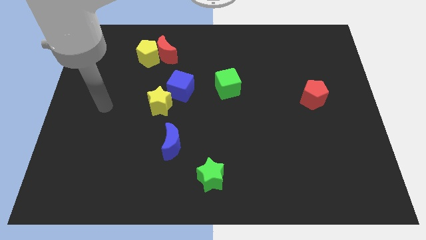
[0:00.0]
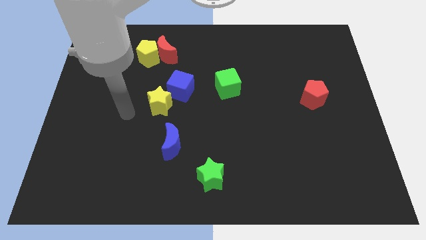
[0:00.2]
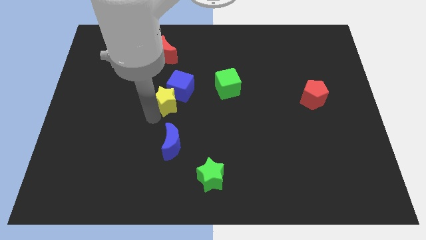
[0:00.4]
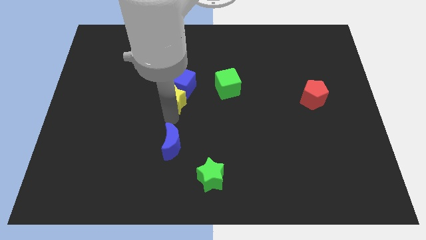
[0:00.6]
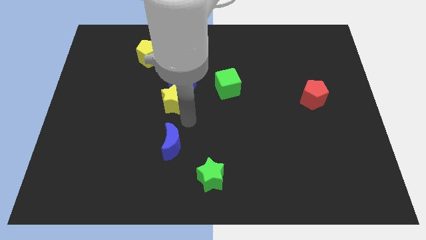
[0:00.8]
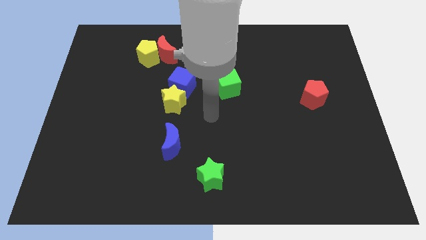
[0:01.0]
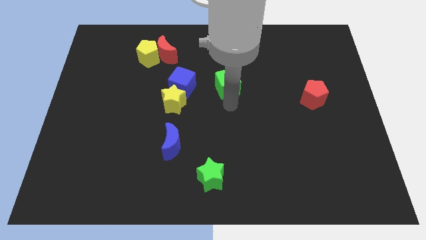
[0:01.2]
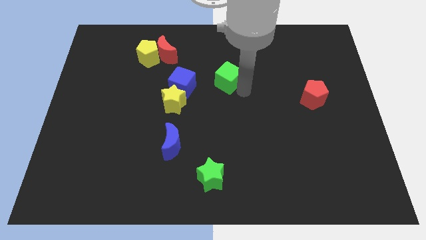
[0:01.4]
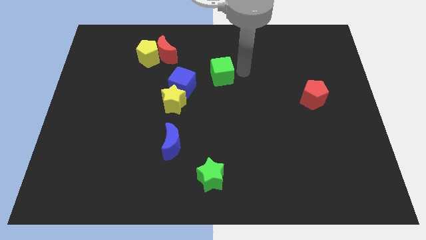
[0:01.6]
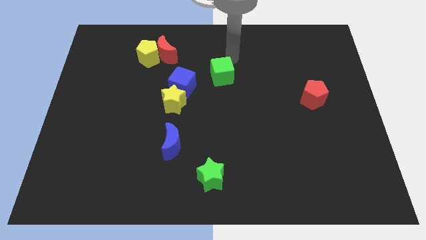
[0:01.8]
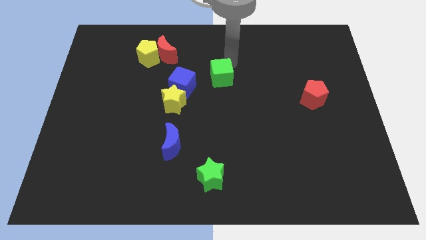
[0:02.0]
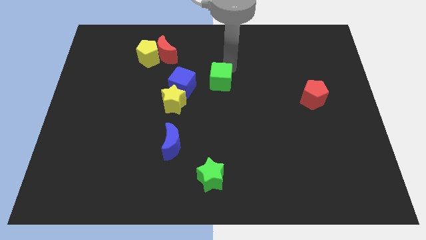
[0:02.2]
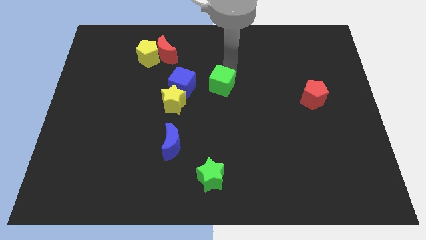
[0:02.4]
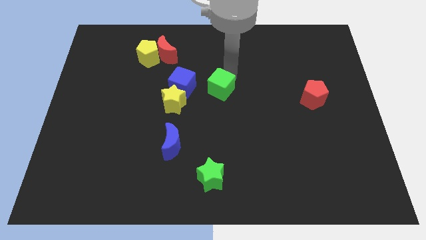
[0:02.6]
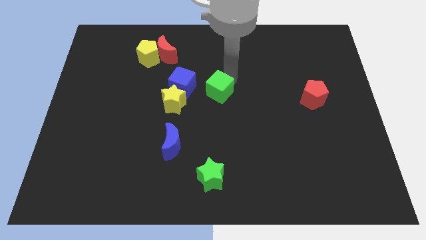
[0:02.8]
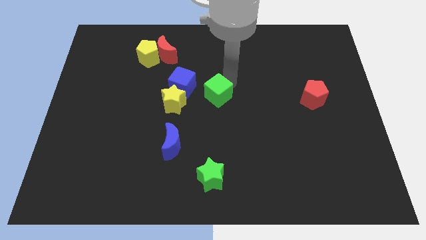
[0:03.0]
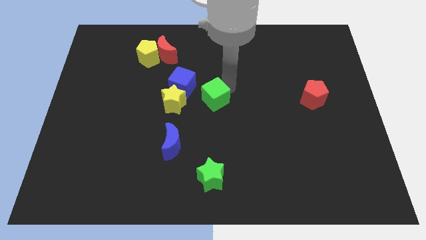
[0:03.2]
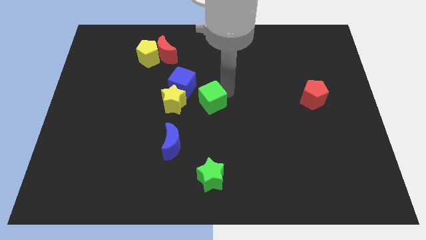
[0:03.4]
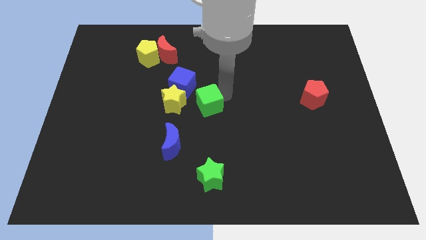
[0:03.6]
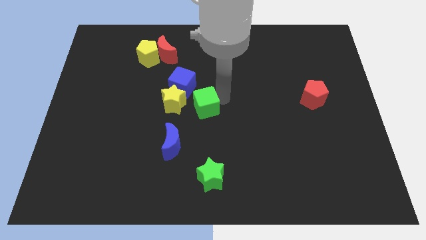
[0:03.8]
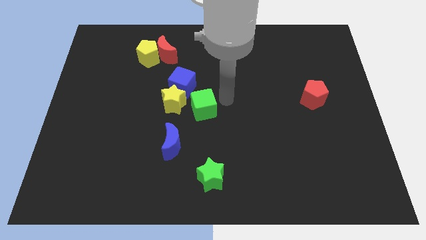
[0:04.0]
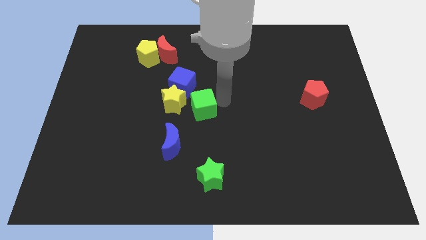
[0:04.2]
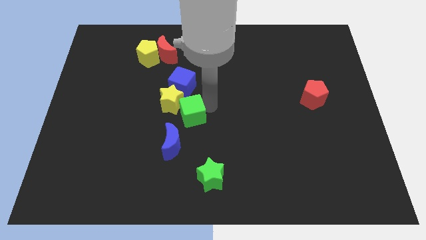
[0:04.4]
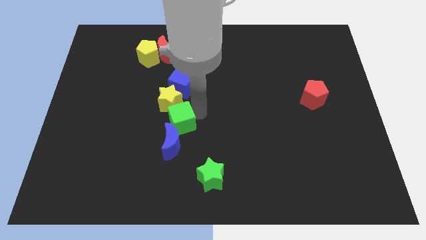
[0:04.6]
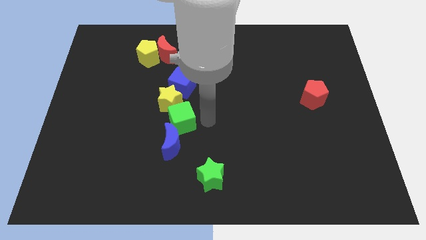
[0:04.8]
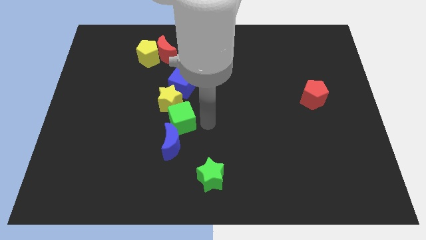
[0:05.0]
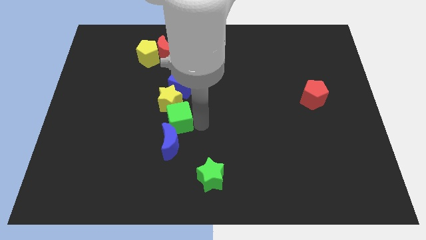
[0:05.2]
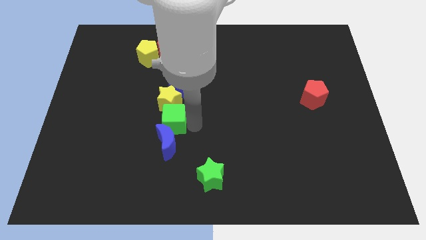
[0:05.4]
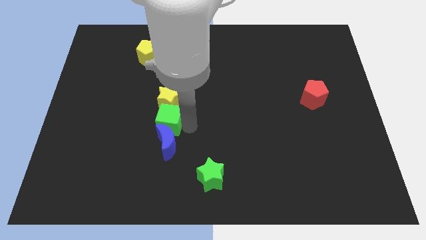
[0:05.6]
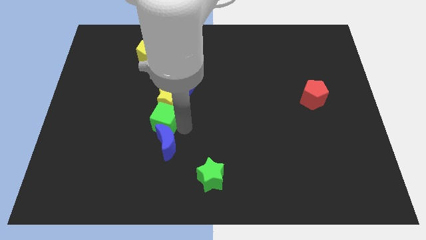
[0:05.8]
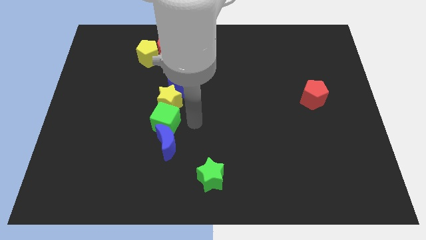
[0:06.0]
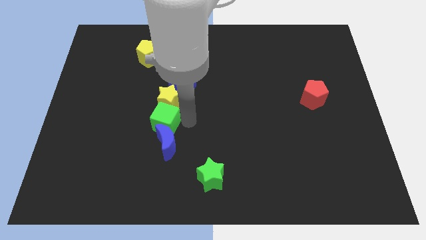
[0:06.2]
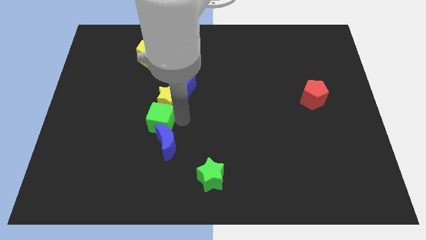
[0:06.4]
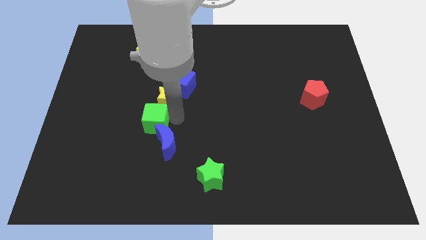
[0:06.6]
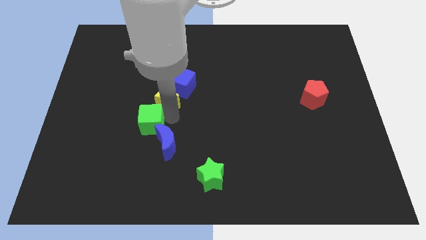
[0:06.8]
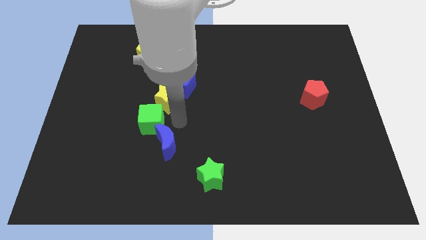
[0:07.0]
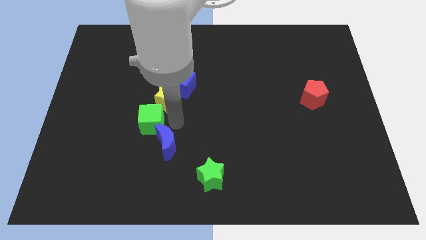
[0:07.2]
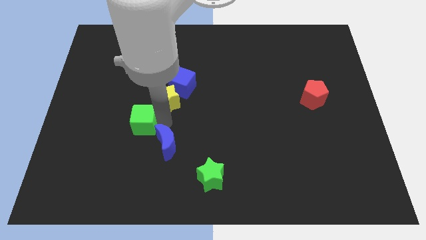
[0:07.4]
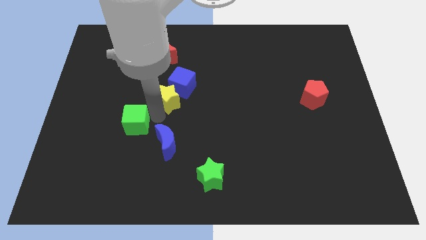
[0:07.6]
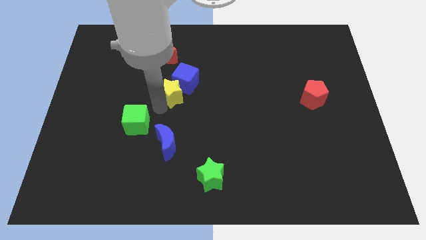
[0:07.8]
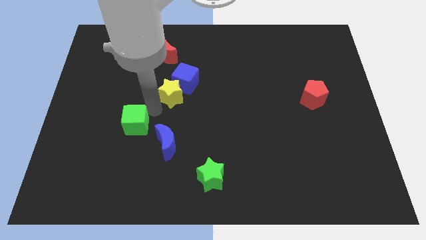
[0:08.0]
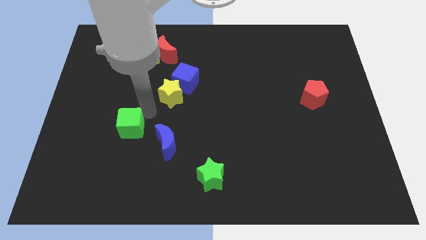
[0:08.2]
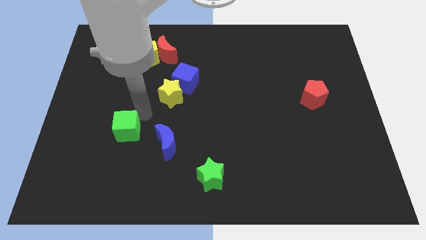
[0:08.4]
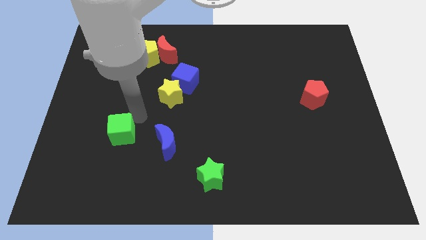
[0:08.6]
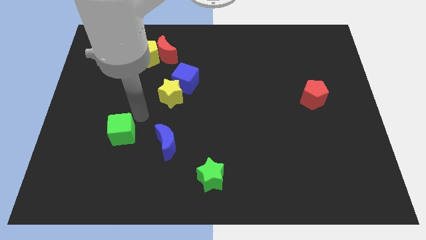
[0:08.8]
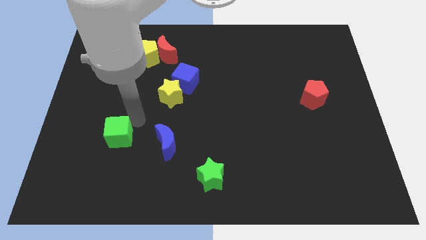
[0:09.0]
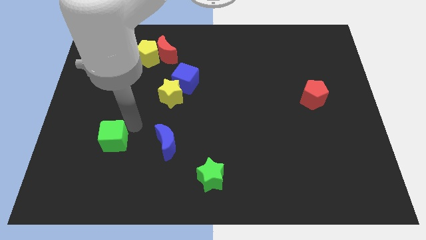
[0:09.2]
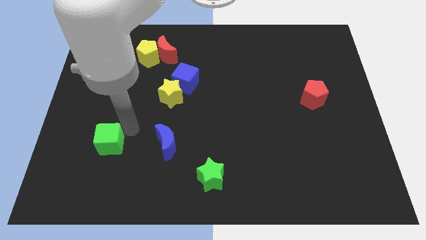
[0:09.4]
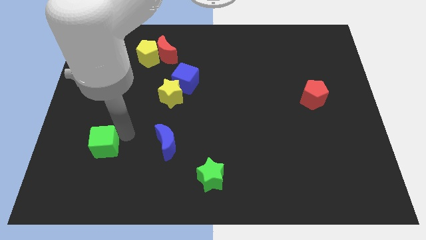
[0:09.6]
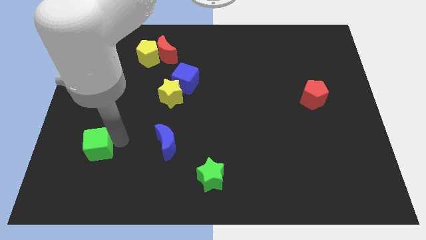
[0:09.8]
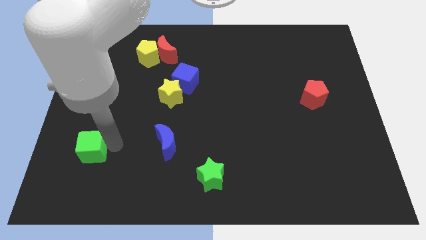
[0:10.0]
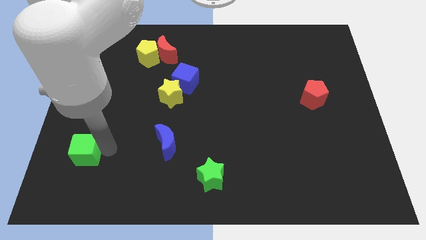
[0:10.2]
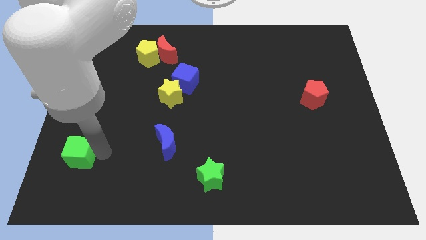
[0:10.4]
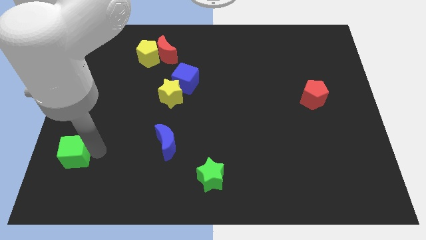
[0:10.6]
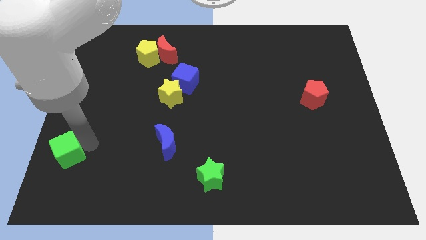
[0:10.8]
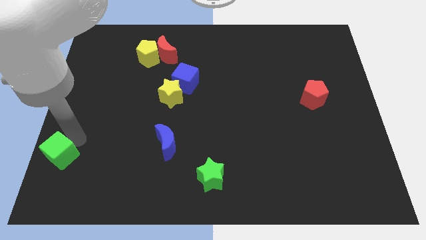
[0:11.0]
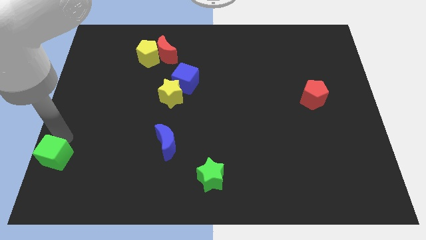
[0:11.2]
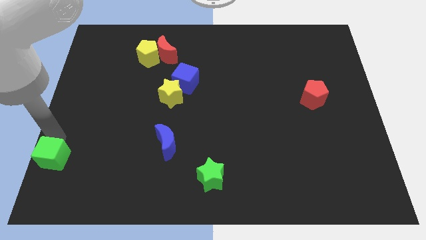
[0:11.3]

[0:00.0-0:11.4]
put the green cube to the bottom left
